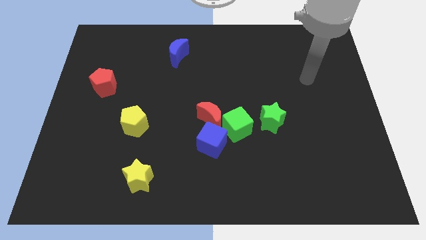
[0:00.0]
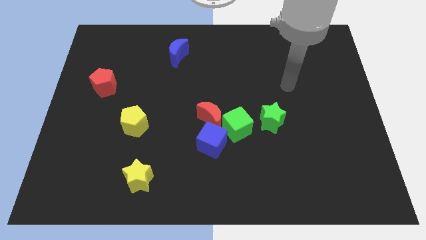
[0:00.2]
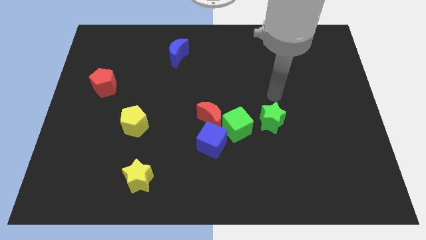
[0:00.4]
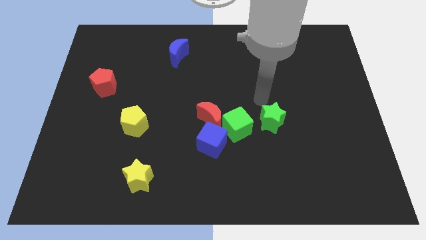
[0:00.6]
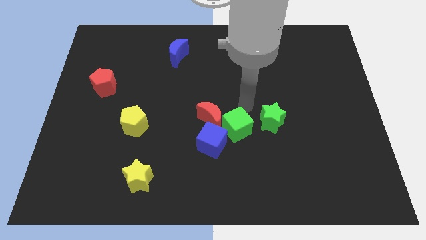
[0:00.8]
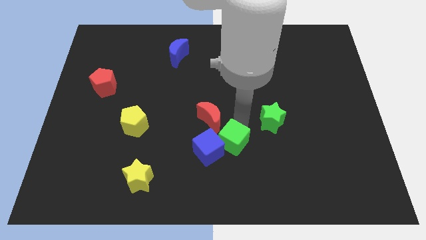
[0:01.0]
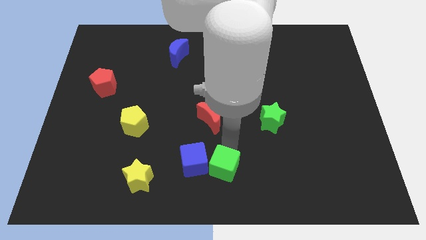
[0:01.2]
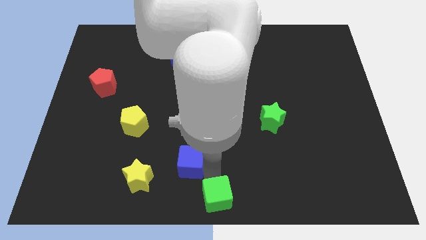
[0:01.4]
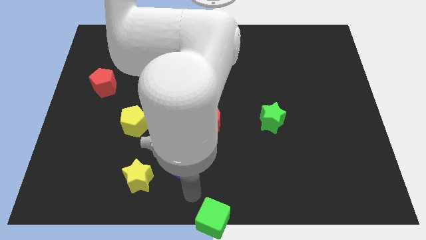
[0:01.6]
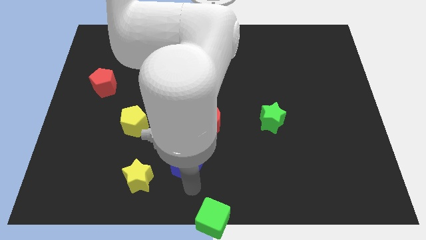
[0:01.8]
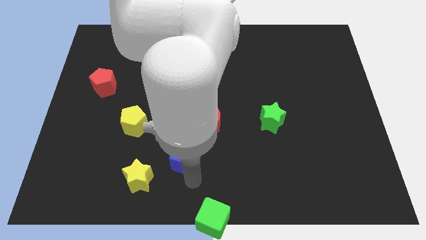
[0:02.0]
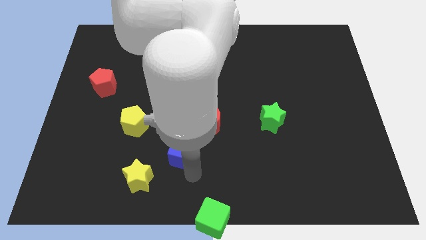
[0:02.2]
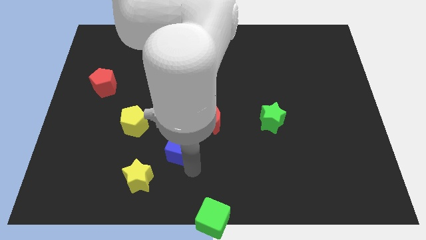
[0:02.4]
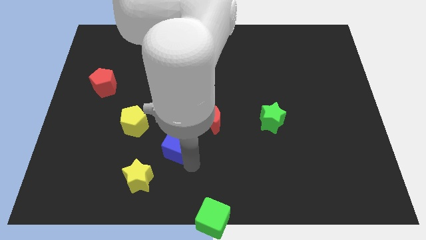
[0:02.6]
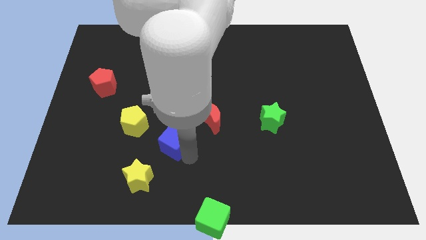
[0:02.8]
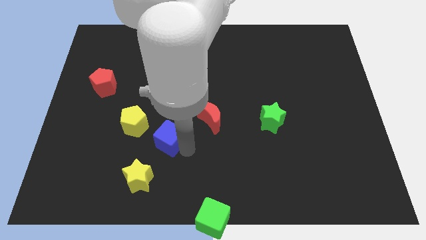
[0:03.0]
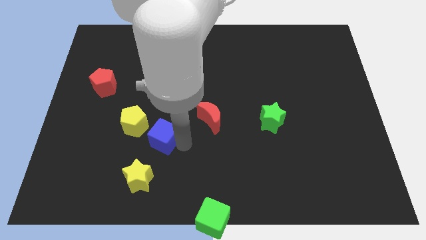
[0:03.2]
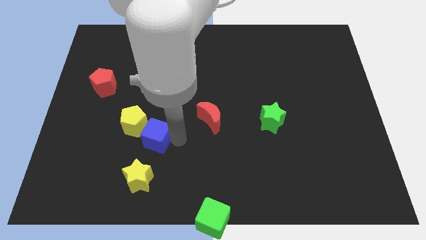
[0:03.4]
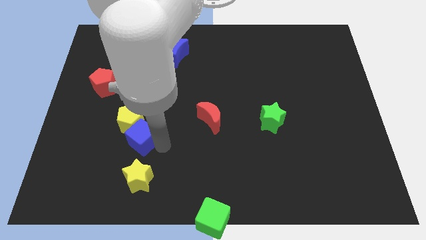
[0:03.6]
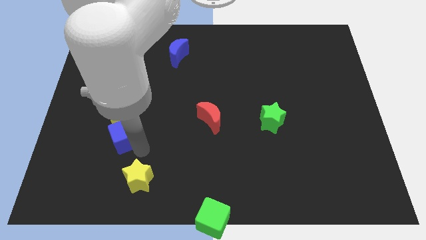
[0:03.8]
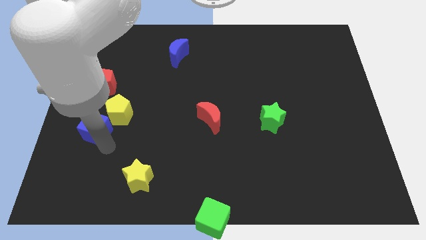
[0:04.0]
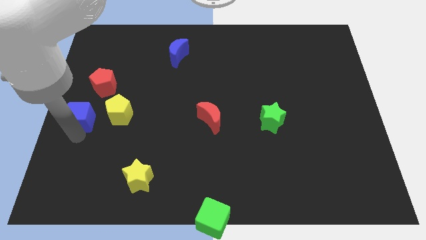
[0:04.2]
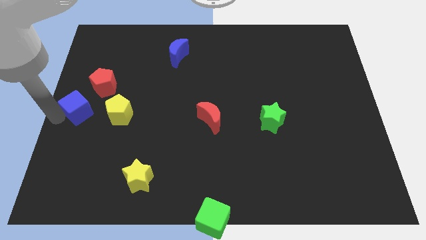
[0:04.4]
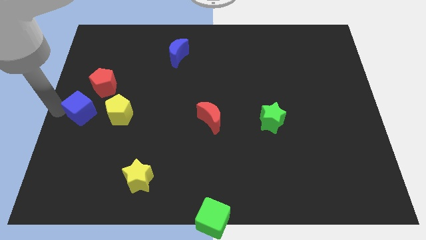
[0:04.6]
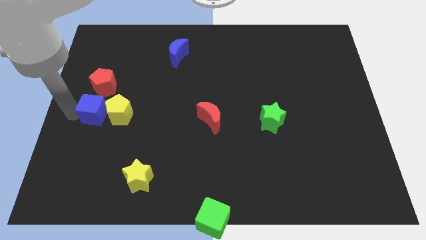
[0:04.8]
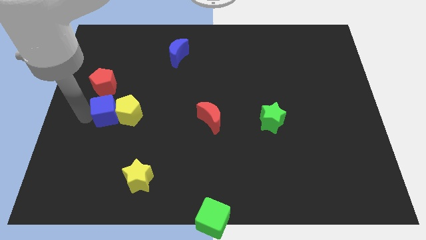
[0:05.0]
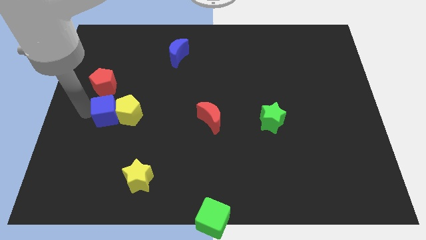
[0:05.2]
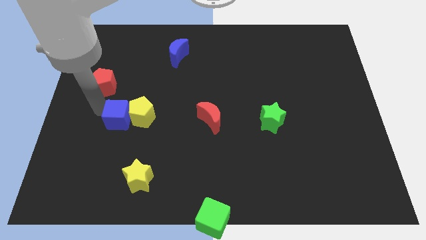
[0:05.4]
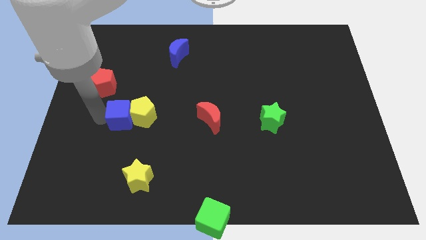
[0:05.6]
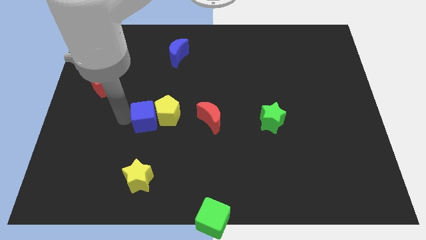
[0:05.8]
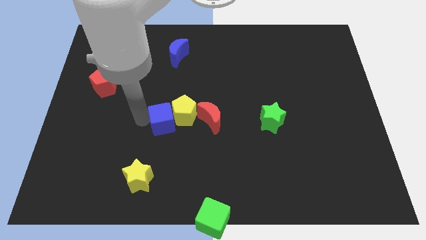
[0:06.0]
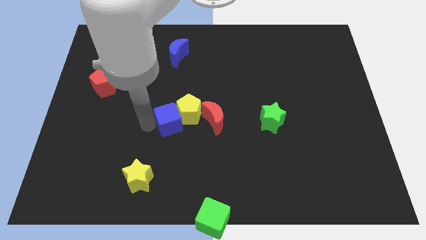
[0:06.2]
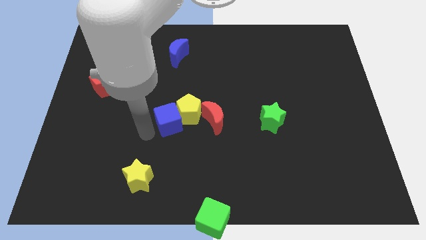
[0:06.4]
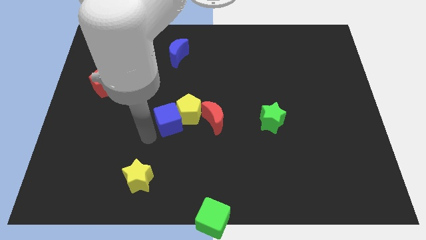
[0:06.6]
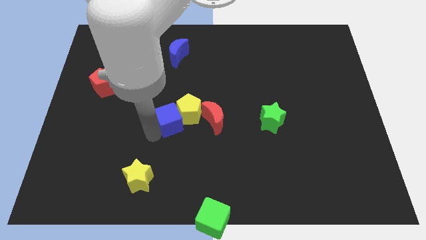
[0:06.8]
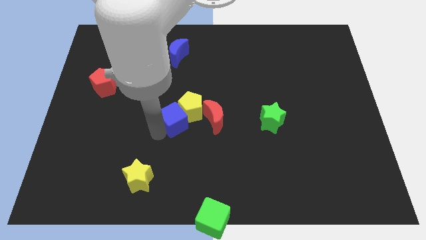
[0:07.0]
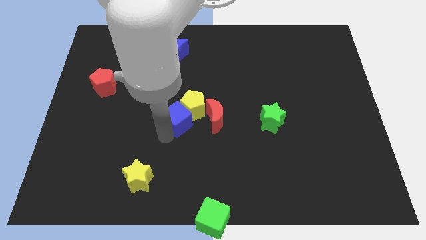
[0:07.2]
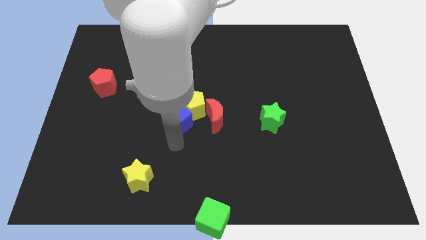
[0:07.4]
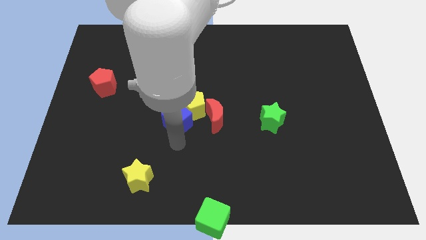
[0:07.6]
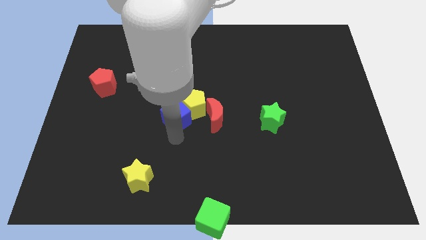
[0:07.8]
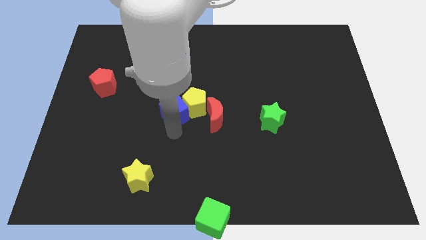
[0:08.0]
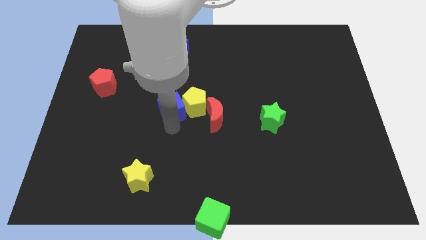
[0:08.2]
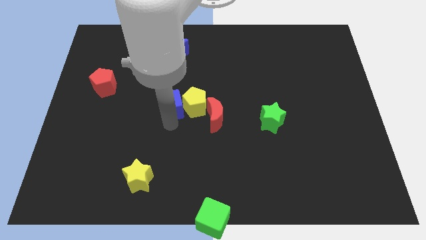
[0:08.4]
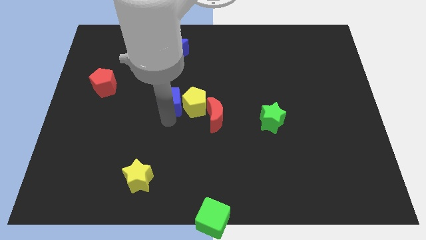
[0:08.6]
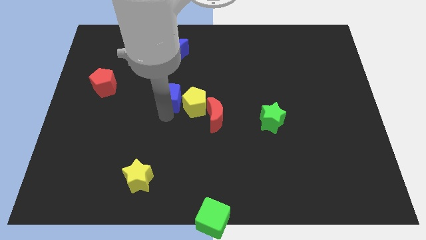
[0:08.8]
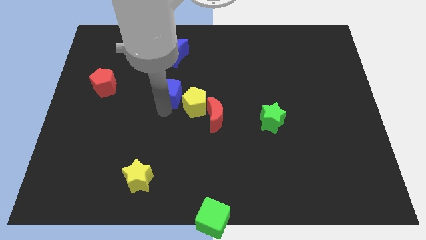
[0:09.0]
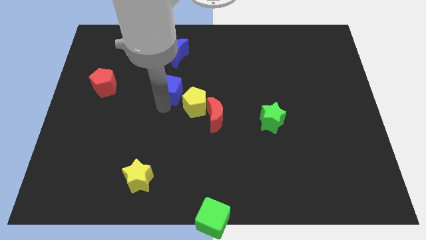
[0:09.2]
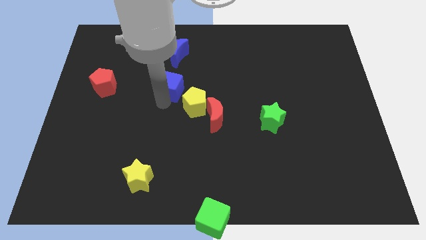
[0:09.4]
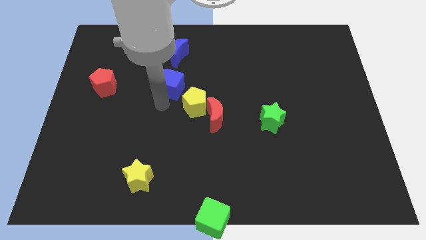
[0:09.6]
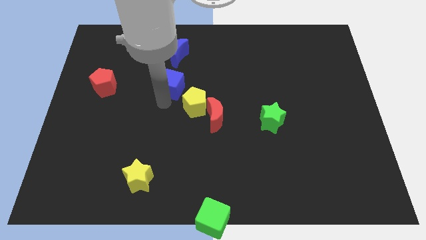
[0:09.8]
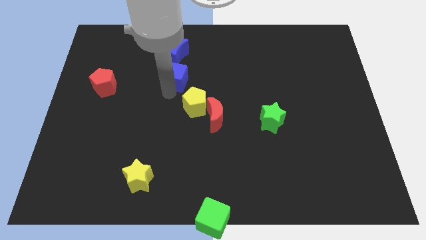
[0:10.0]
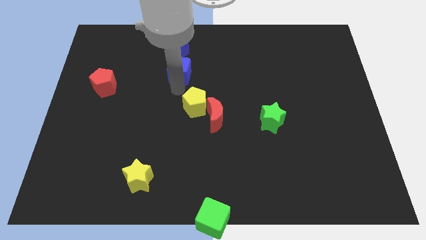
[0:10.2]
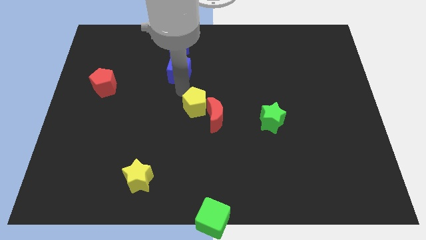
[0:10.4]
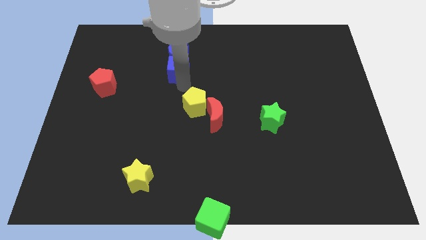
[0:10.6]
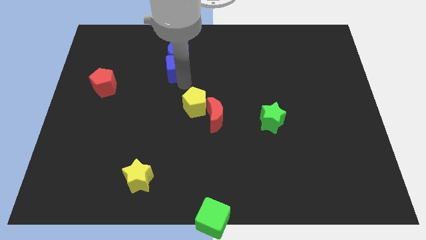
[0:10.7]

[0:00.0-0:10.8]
move the blue cube next to the blue moon

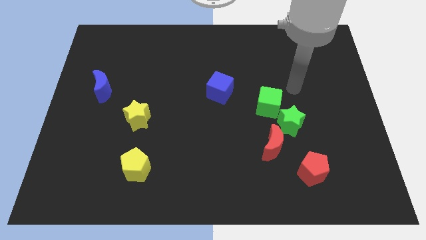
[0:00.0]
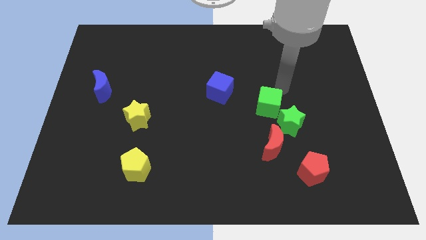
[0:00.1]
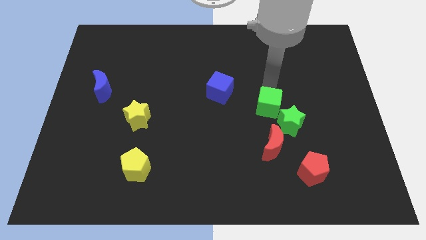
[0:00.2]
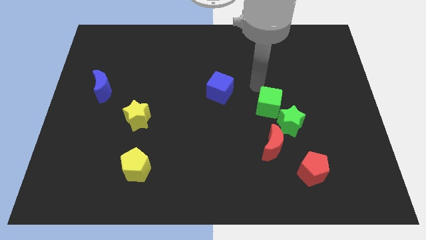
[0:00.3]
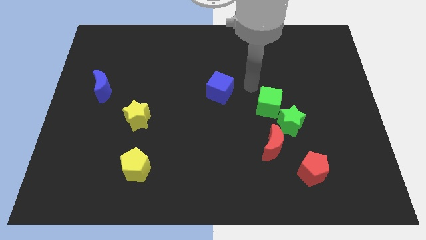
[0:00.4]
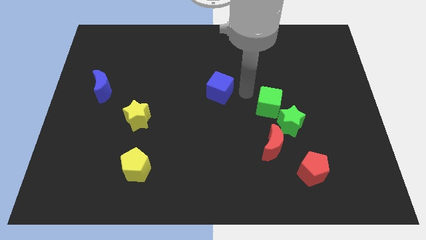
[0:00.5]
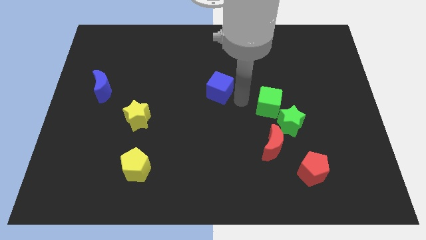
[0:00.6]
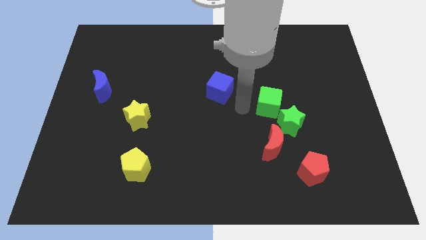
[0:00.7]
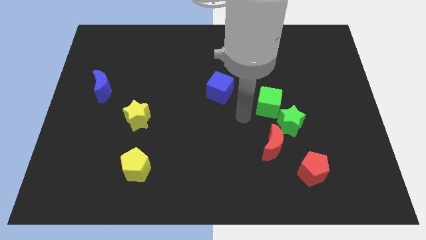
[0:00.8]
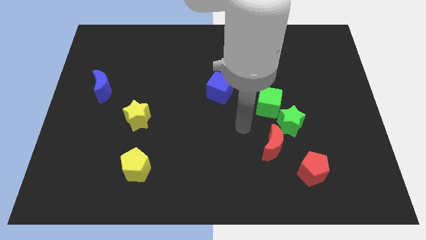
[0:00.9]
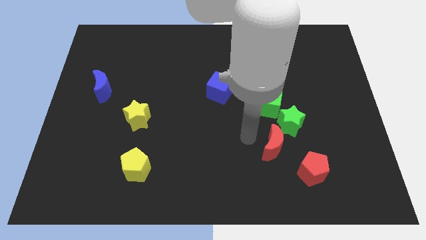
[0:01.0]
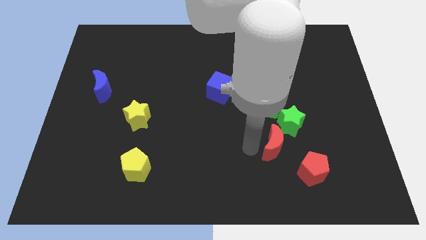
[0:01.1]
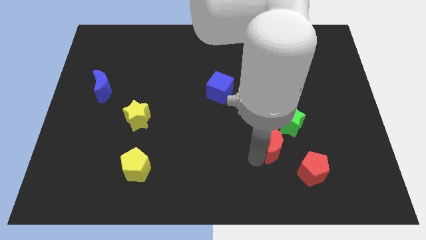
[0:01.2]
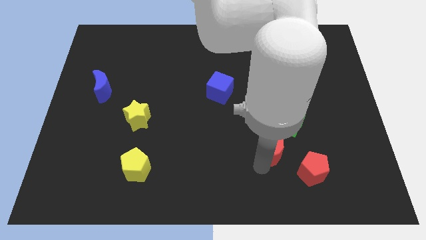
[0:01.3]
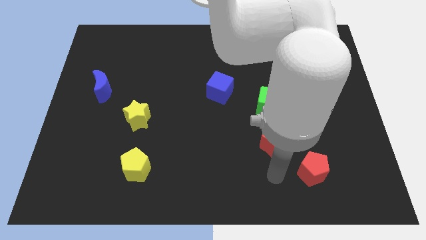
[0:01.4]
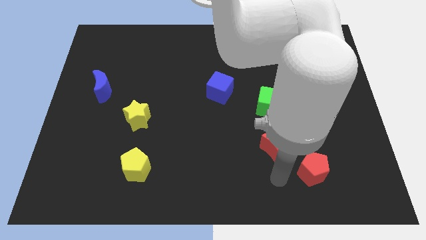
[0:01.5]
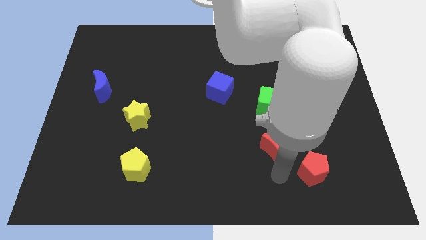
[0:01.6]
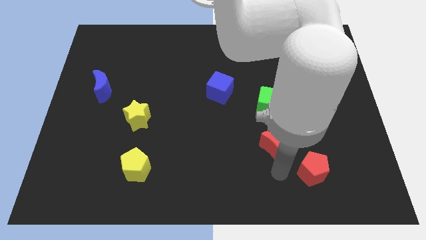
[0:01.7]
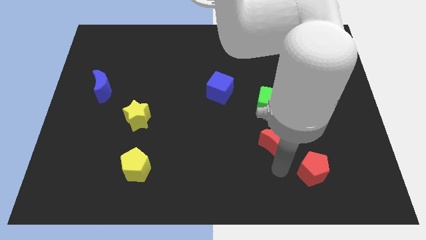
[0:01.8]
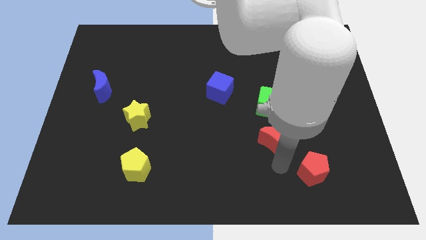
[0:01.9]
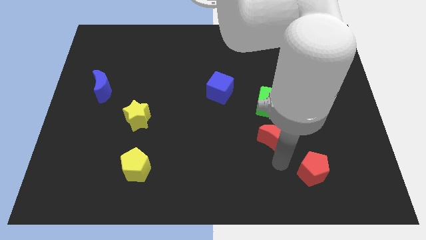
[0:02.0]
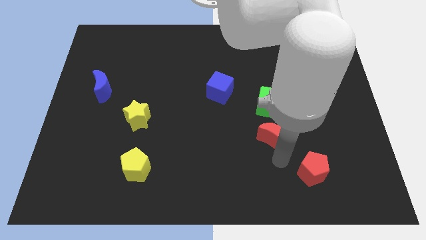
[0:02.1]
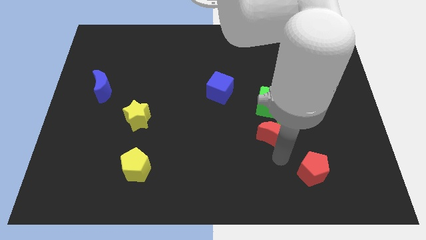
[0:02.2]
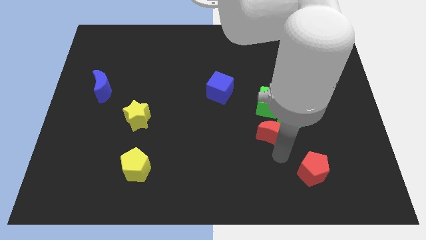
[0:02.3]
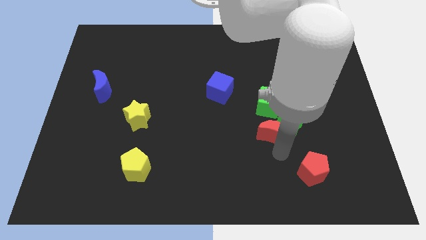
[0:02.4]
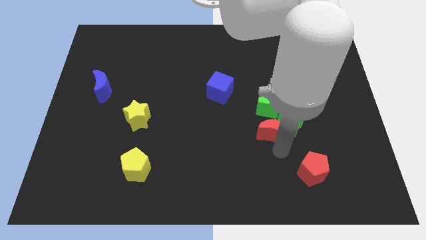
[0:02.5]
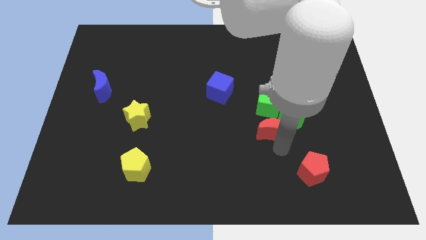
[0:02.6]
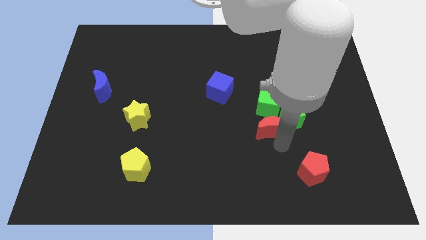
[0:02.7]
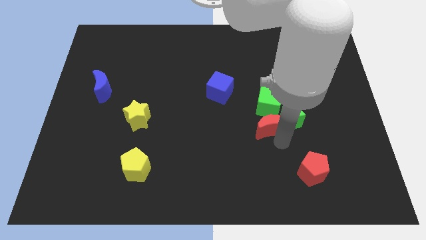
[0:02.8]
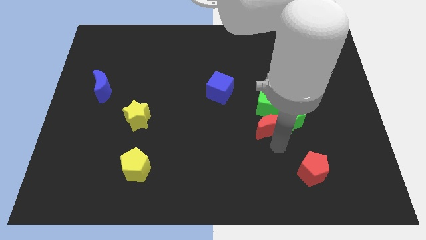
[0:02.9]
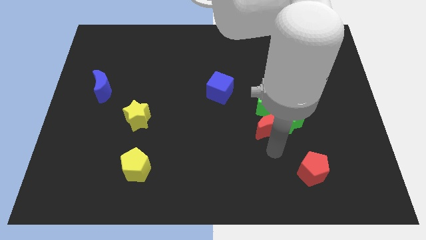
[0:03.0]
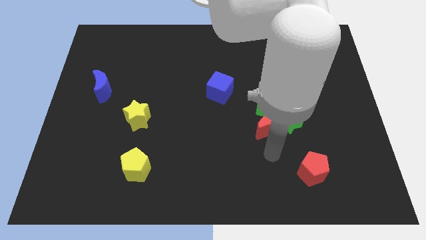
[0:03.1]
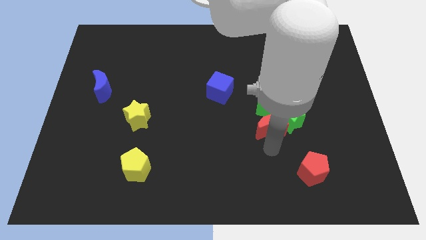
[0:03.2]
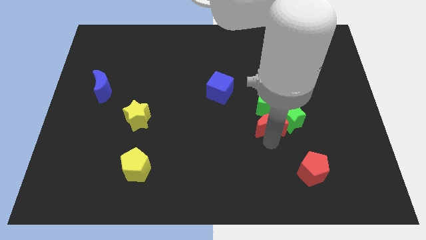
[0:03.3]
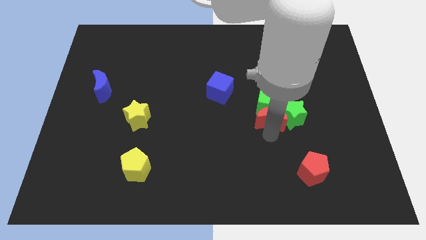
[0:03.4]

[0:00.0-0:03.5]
move the red moon next to the green cube
